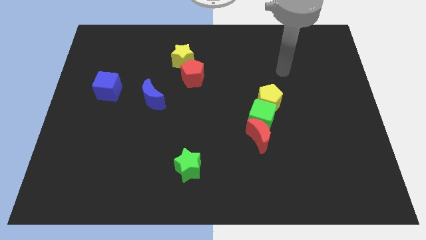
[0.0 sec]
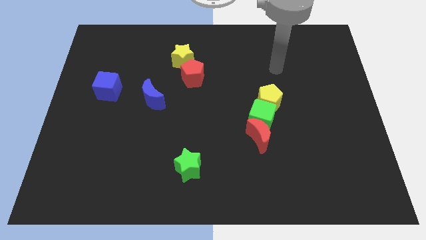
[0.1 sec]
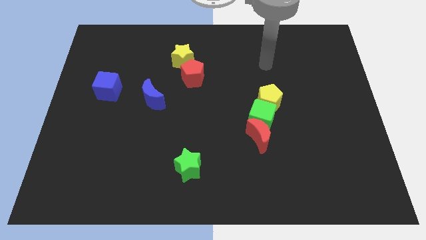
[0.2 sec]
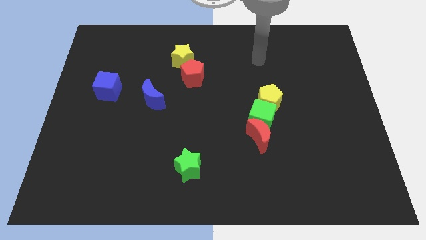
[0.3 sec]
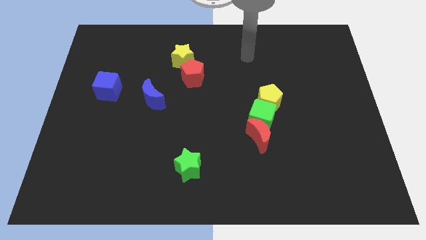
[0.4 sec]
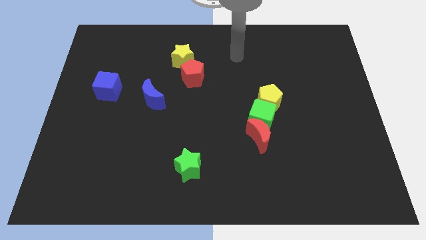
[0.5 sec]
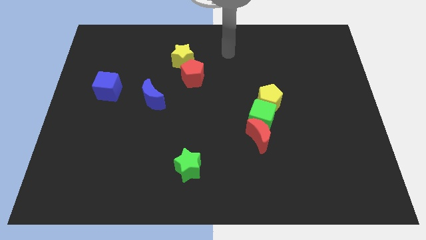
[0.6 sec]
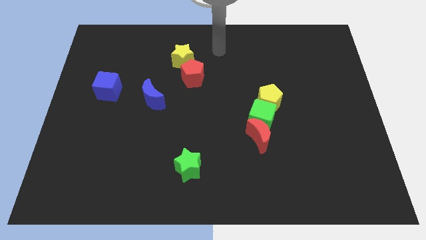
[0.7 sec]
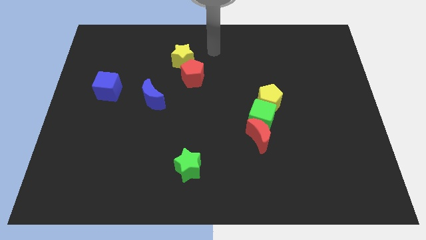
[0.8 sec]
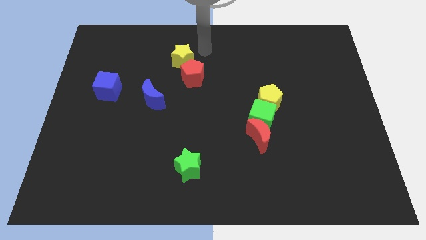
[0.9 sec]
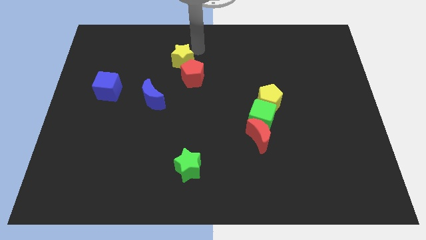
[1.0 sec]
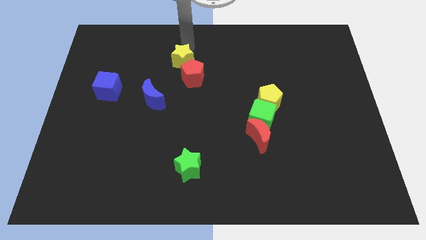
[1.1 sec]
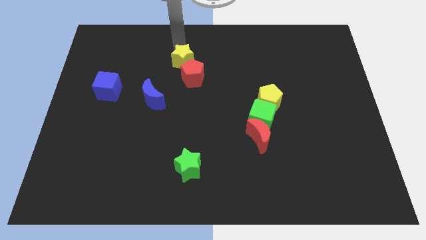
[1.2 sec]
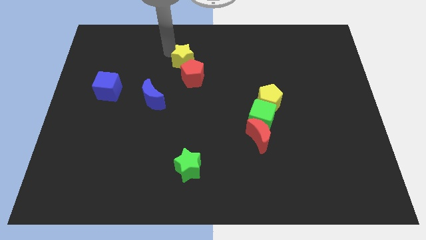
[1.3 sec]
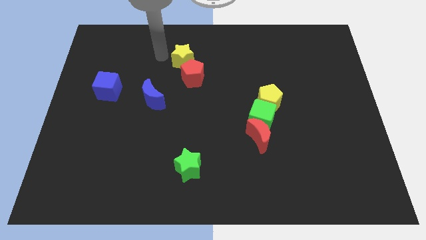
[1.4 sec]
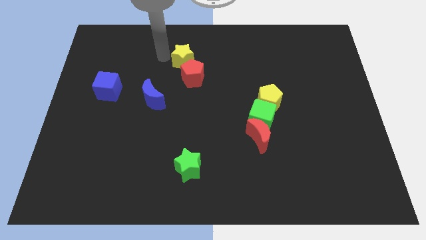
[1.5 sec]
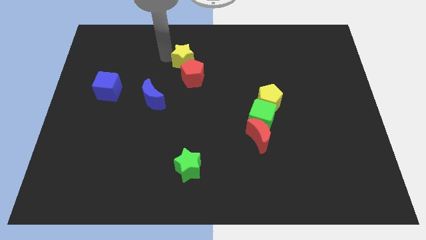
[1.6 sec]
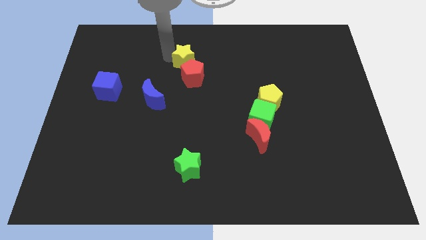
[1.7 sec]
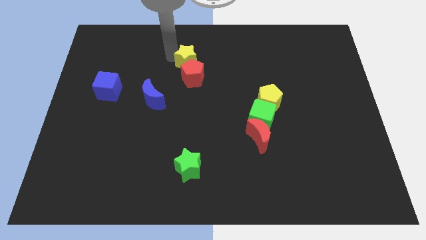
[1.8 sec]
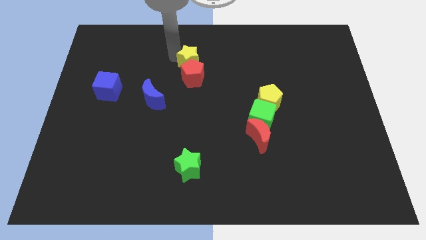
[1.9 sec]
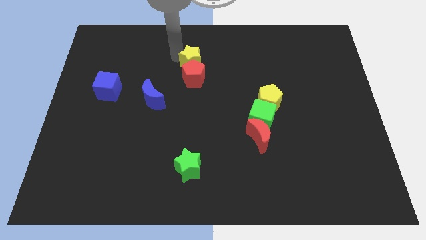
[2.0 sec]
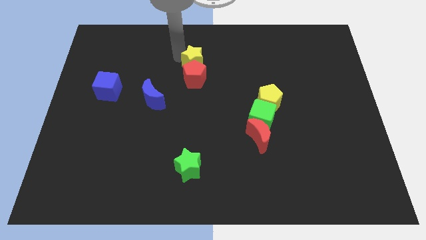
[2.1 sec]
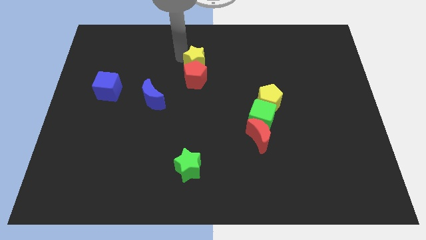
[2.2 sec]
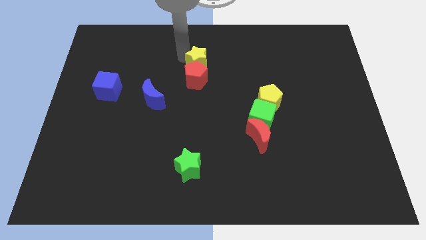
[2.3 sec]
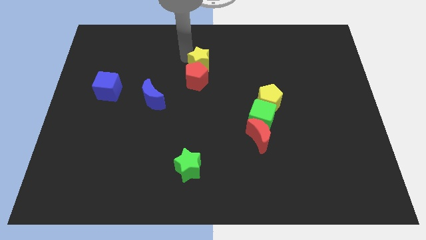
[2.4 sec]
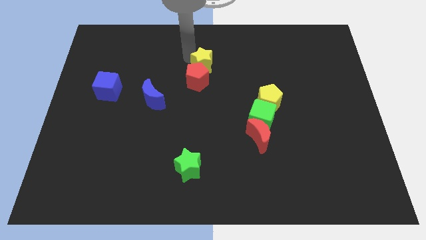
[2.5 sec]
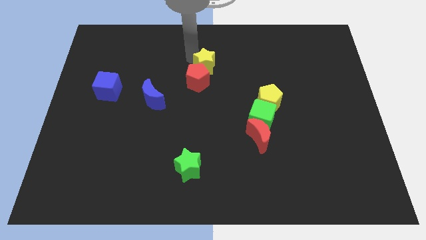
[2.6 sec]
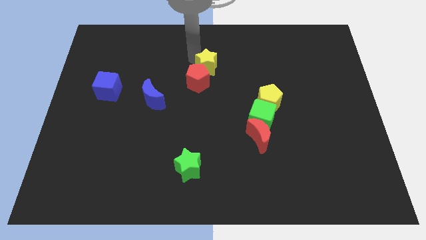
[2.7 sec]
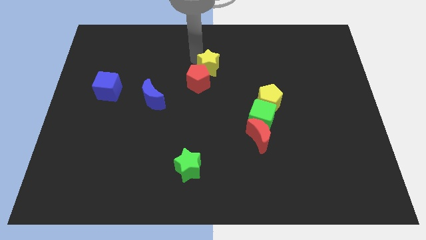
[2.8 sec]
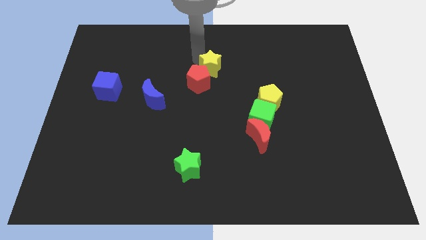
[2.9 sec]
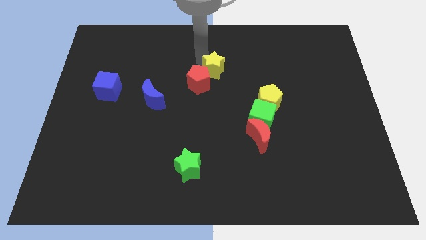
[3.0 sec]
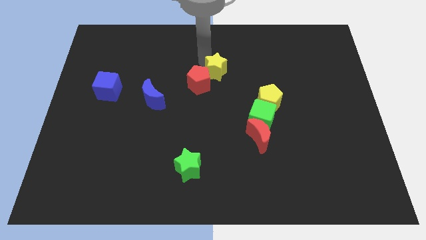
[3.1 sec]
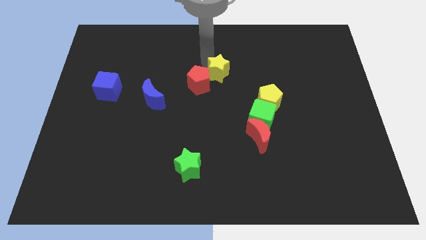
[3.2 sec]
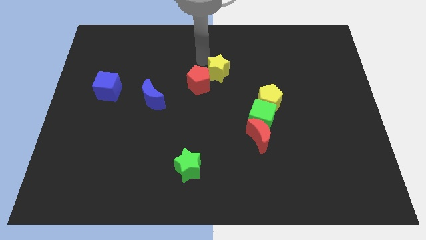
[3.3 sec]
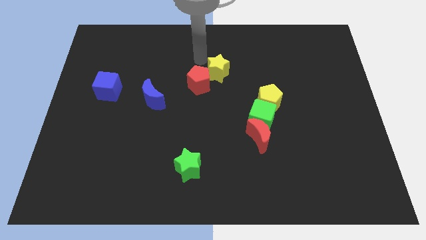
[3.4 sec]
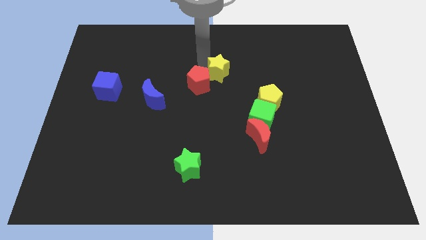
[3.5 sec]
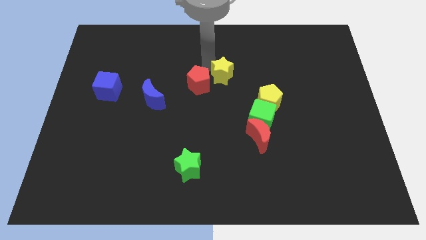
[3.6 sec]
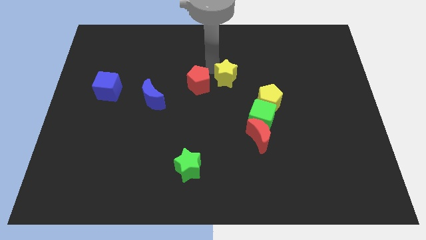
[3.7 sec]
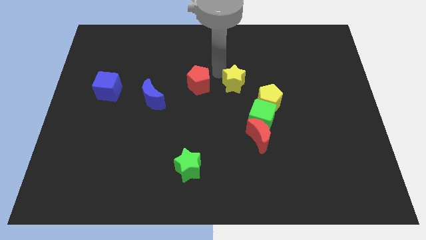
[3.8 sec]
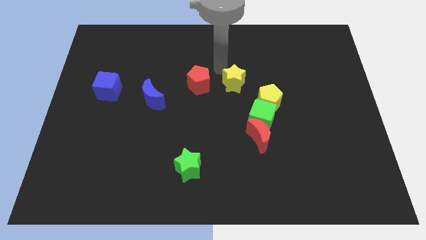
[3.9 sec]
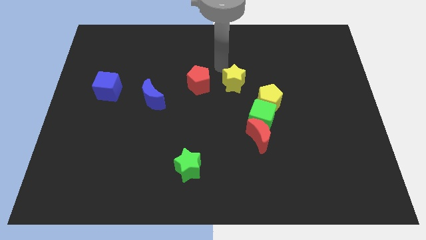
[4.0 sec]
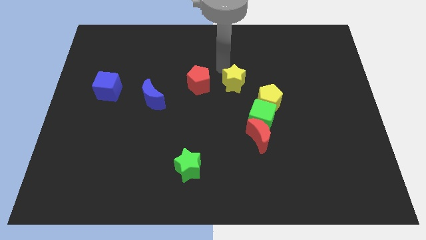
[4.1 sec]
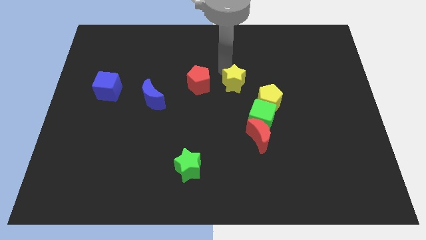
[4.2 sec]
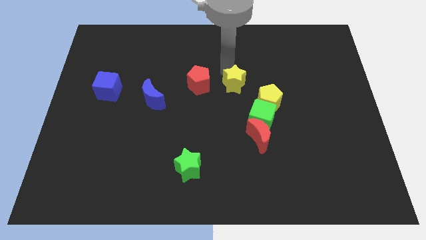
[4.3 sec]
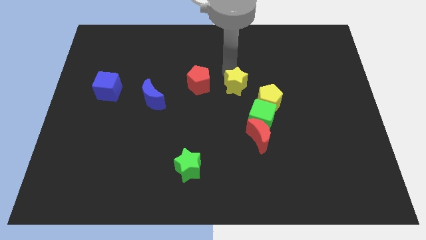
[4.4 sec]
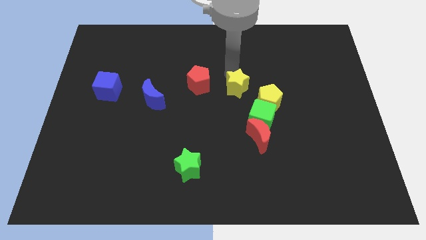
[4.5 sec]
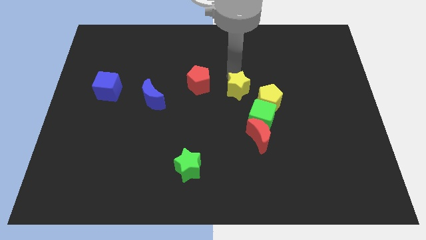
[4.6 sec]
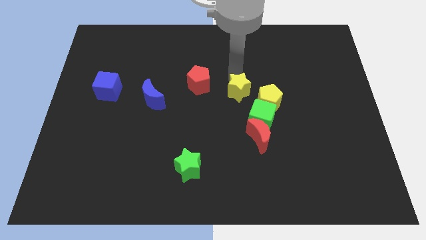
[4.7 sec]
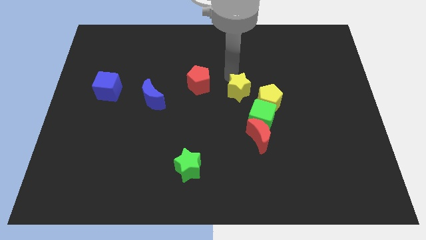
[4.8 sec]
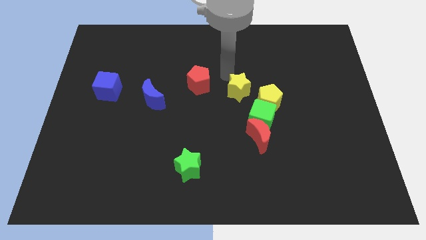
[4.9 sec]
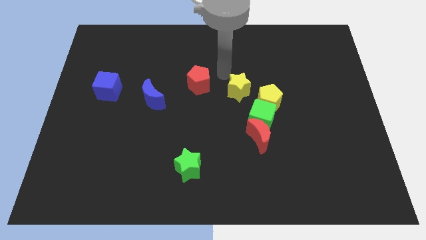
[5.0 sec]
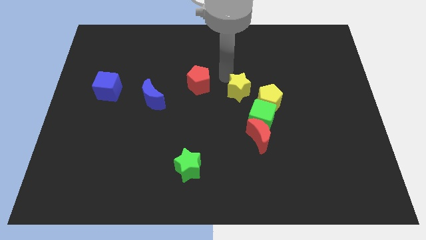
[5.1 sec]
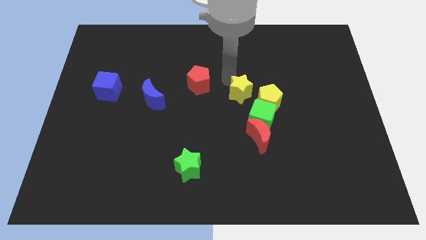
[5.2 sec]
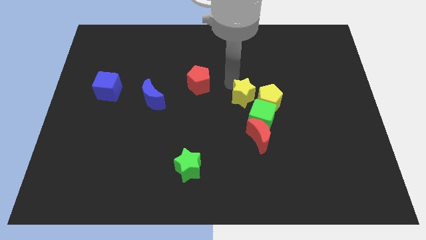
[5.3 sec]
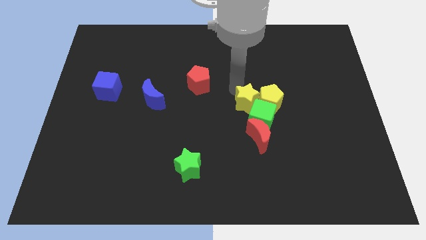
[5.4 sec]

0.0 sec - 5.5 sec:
put the yellow star close to the green cube

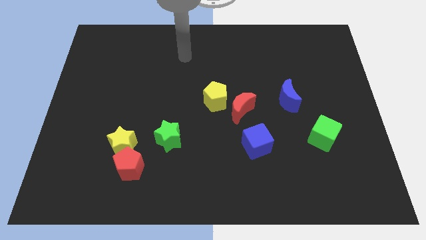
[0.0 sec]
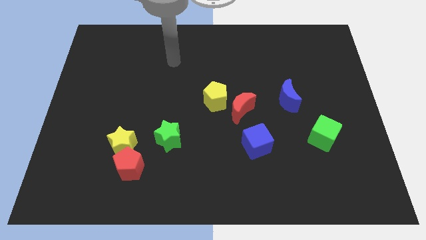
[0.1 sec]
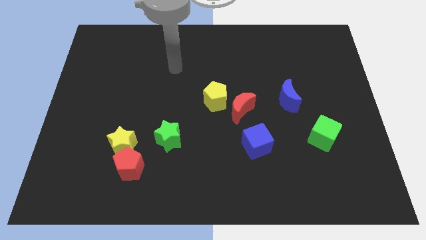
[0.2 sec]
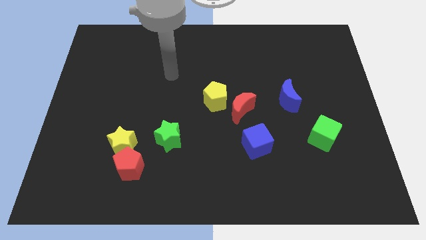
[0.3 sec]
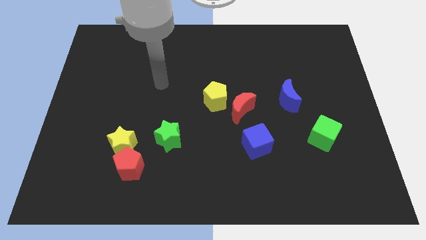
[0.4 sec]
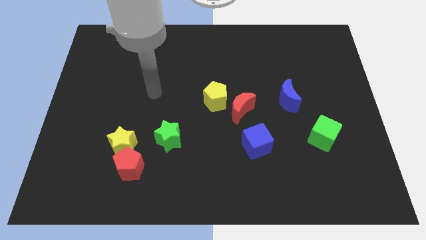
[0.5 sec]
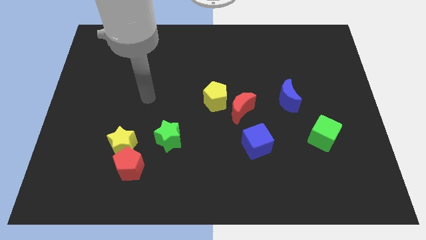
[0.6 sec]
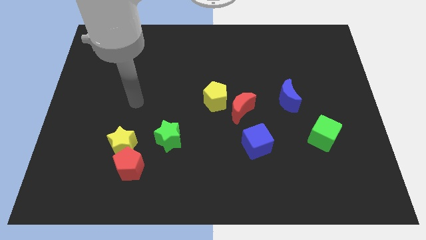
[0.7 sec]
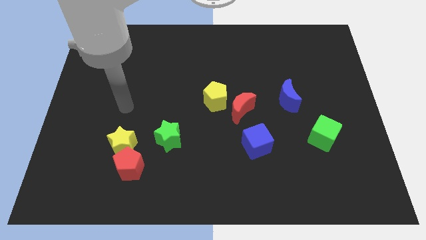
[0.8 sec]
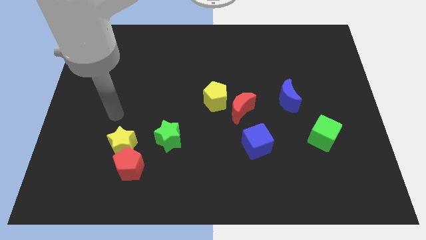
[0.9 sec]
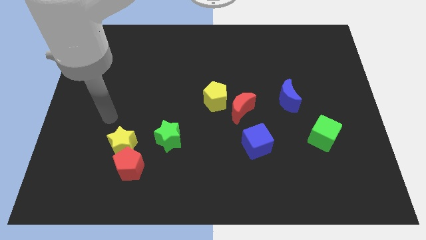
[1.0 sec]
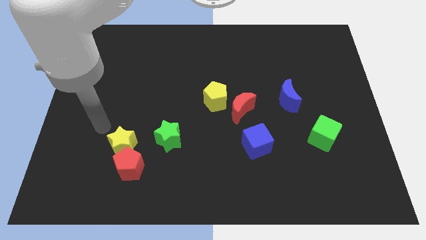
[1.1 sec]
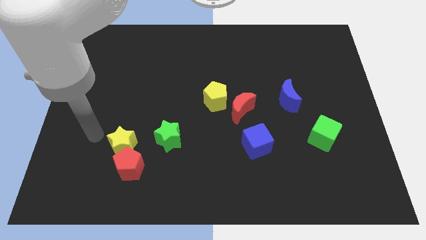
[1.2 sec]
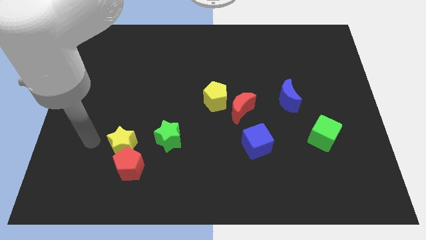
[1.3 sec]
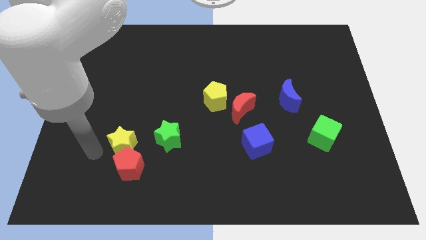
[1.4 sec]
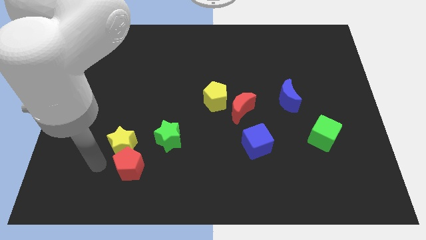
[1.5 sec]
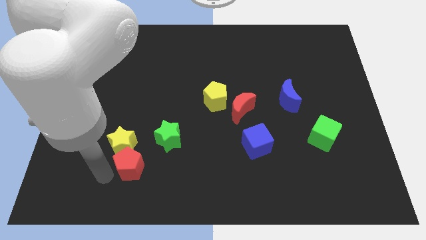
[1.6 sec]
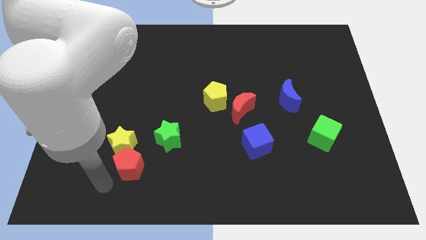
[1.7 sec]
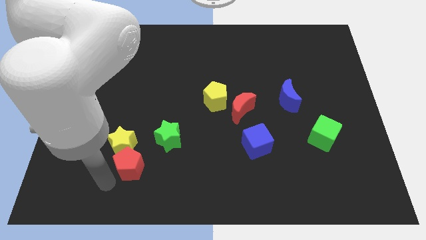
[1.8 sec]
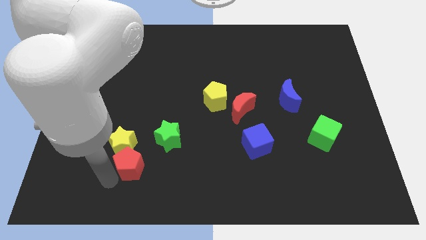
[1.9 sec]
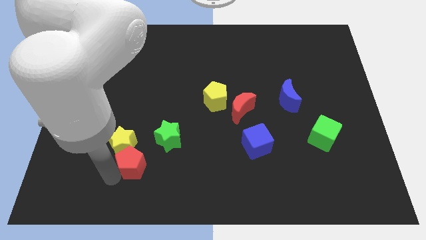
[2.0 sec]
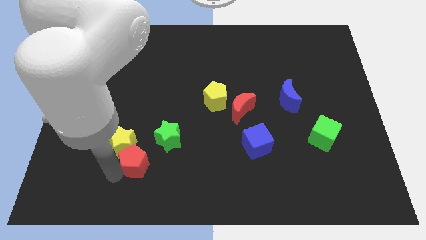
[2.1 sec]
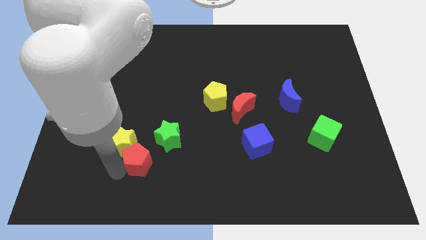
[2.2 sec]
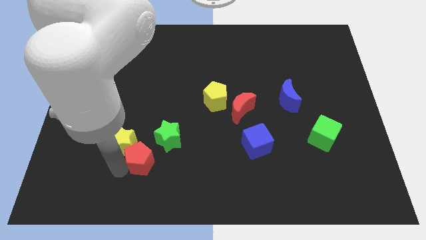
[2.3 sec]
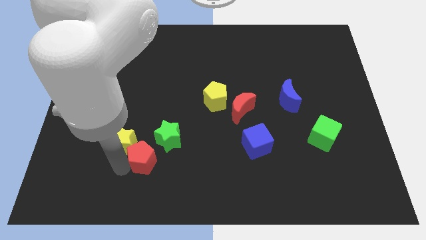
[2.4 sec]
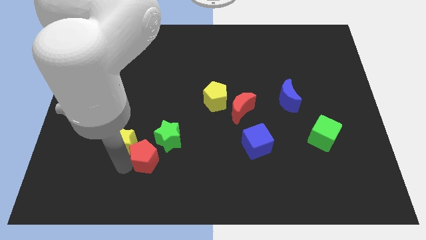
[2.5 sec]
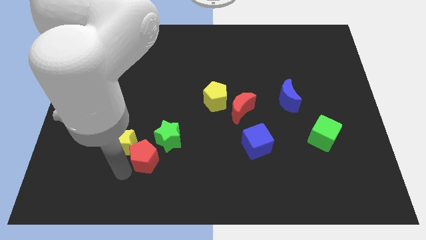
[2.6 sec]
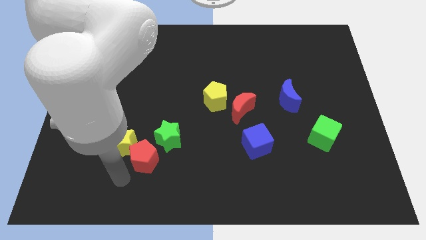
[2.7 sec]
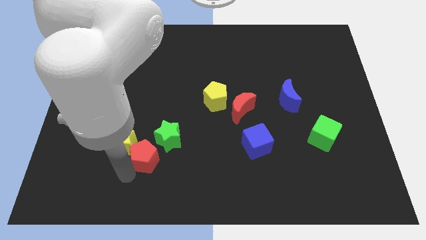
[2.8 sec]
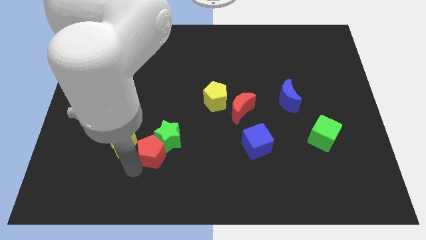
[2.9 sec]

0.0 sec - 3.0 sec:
put the red pentagon towards the green star
